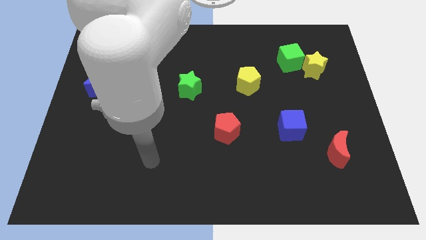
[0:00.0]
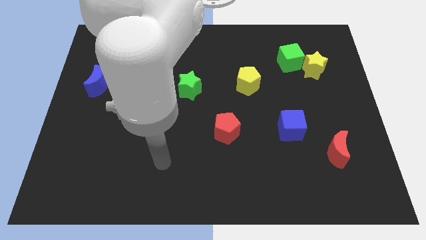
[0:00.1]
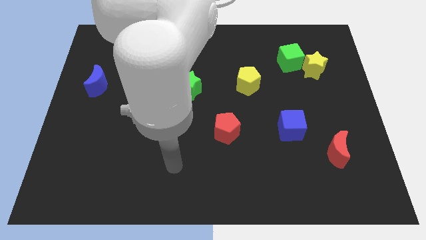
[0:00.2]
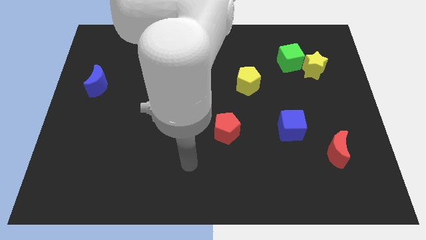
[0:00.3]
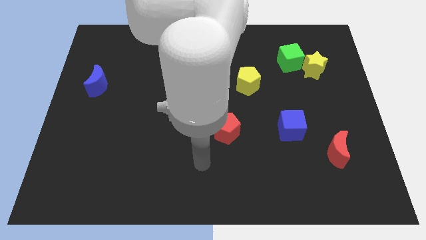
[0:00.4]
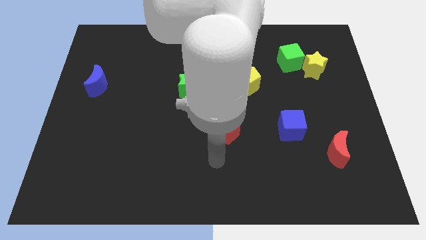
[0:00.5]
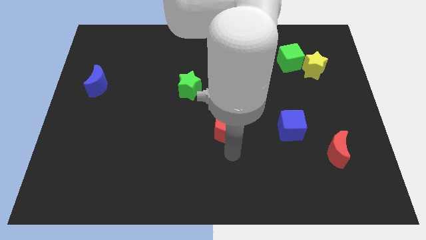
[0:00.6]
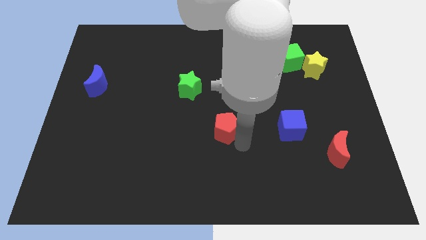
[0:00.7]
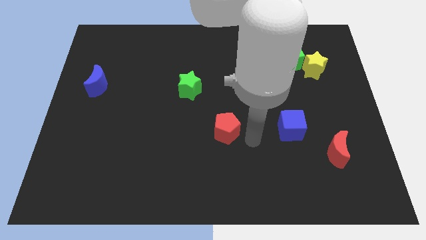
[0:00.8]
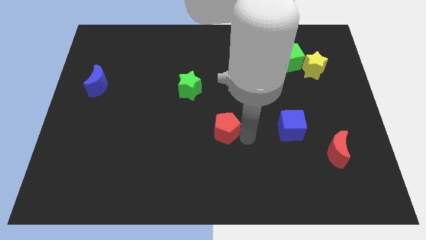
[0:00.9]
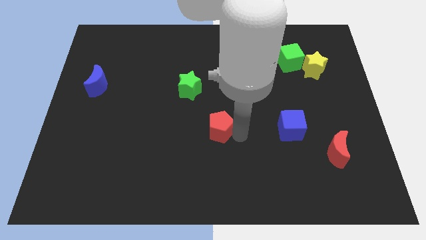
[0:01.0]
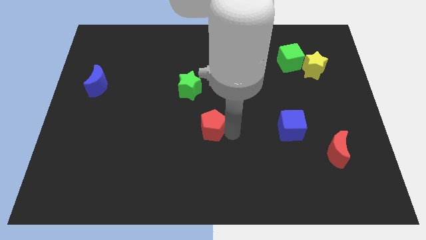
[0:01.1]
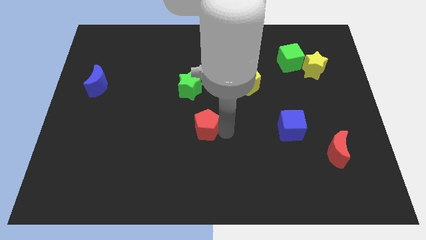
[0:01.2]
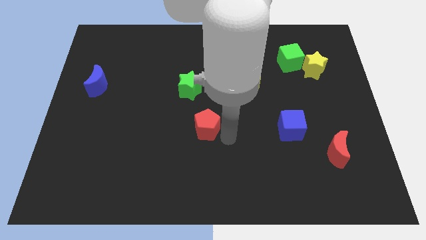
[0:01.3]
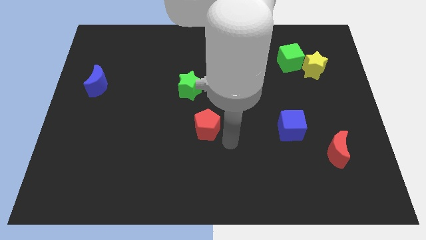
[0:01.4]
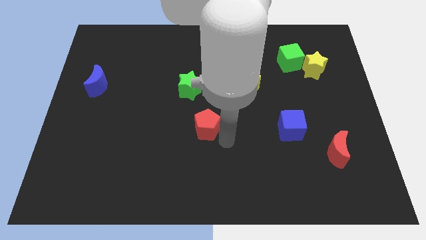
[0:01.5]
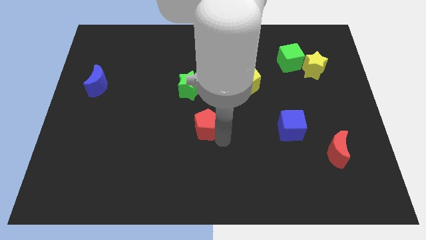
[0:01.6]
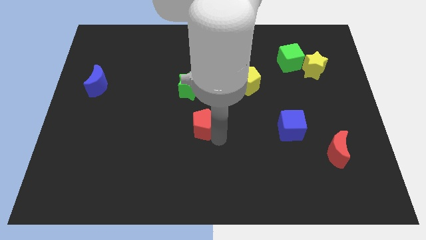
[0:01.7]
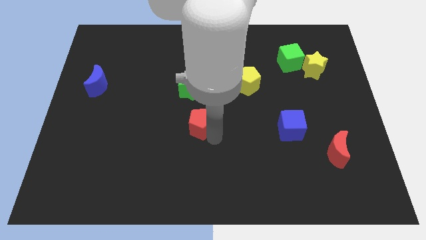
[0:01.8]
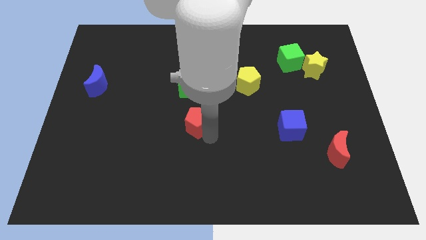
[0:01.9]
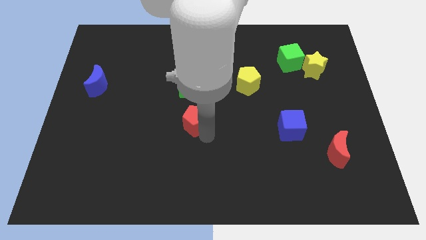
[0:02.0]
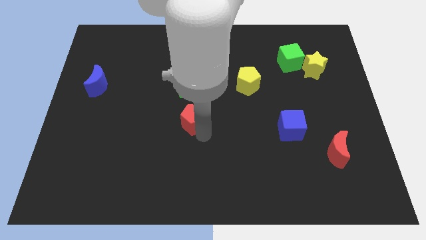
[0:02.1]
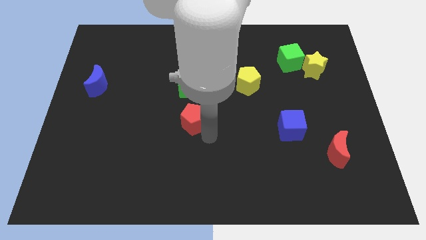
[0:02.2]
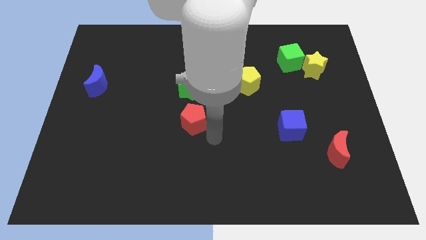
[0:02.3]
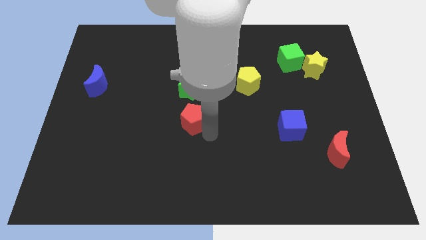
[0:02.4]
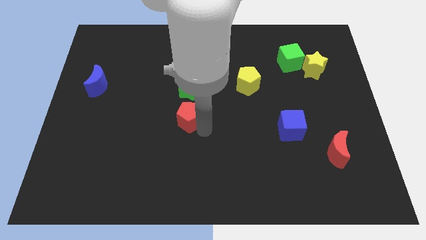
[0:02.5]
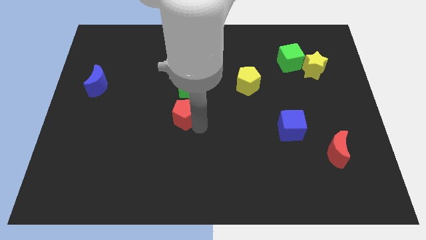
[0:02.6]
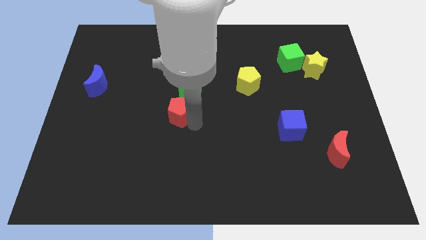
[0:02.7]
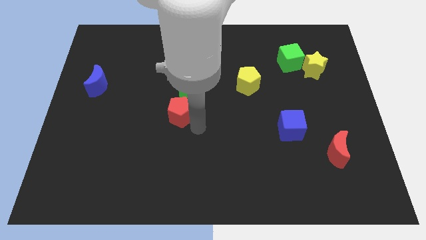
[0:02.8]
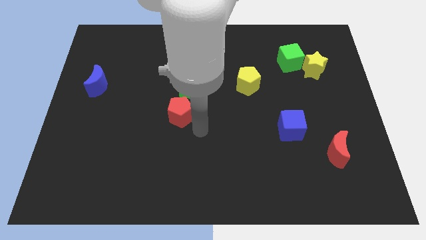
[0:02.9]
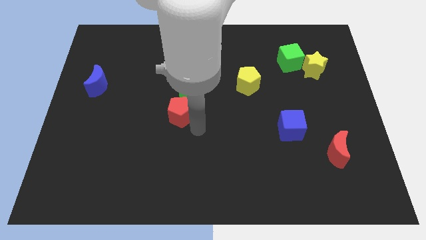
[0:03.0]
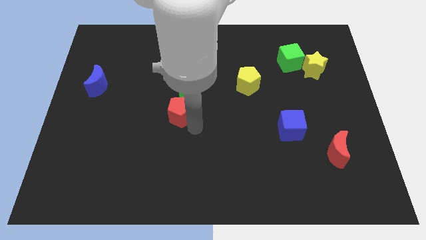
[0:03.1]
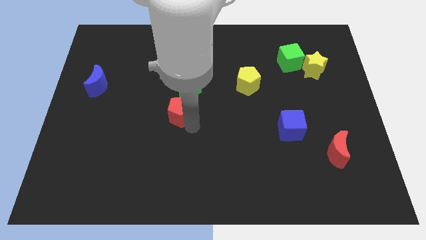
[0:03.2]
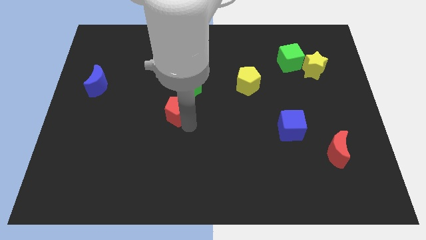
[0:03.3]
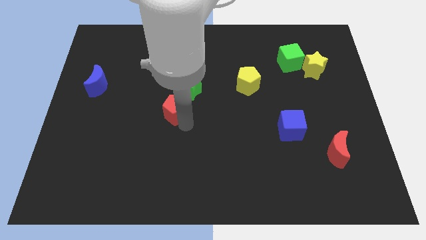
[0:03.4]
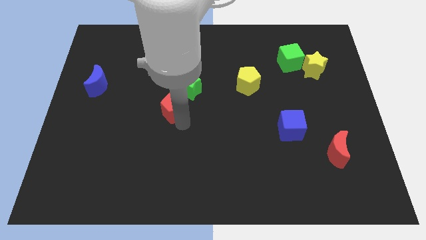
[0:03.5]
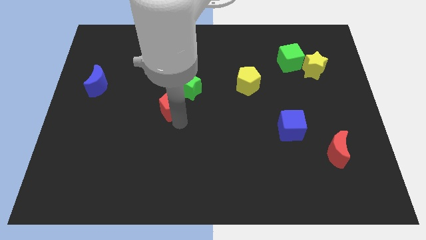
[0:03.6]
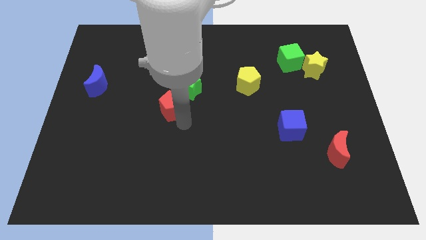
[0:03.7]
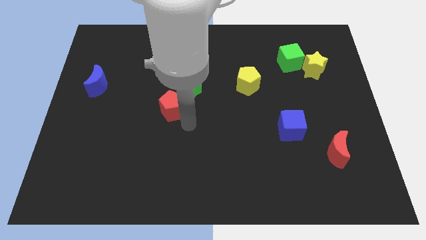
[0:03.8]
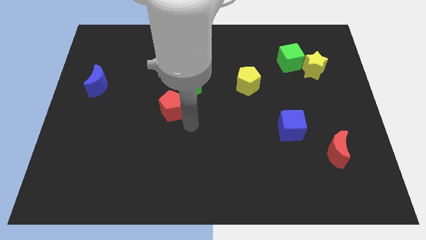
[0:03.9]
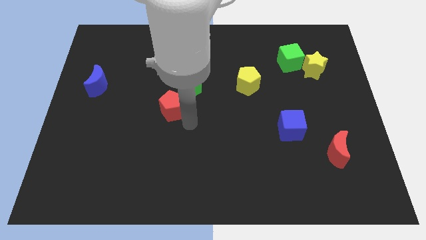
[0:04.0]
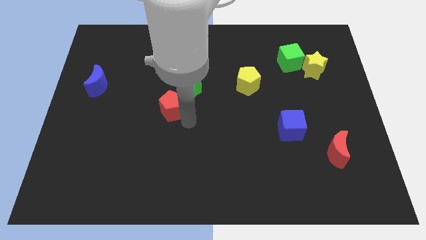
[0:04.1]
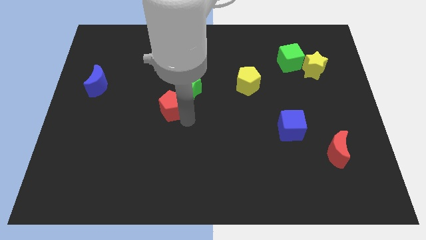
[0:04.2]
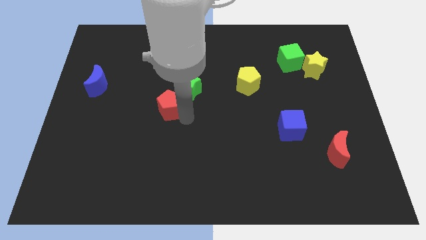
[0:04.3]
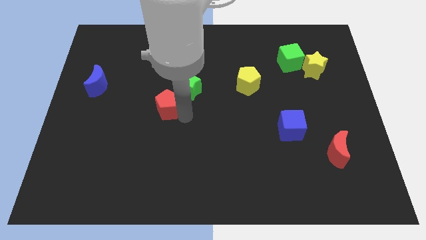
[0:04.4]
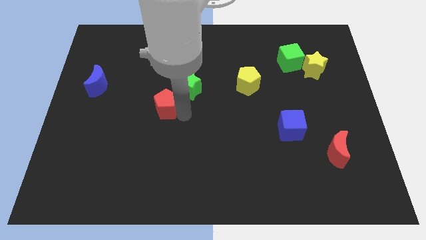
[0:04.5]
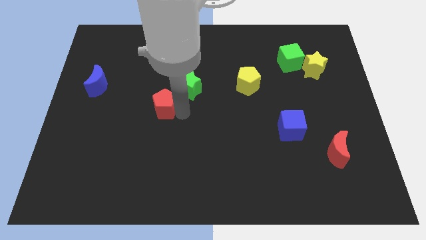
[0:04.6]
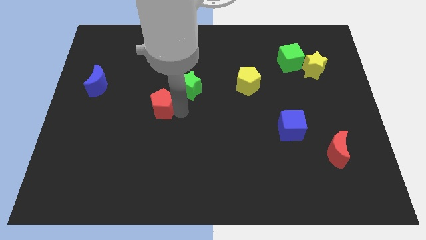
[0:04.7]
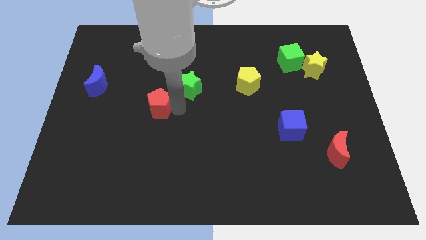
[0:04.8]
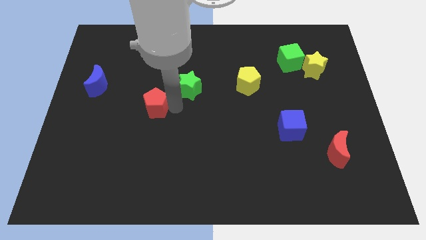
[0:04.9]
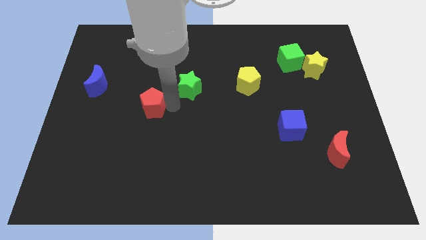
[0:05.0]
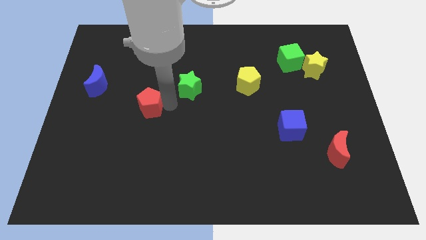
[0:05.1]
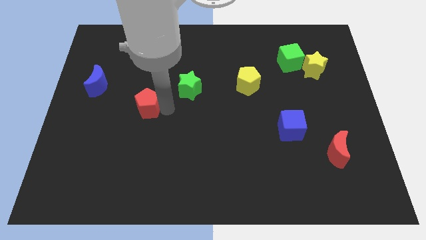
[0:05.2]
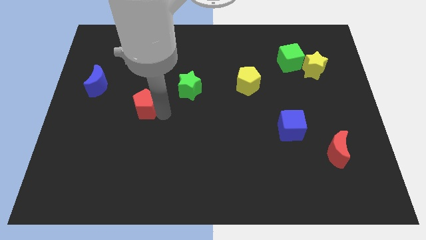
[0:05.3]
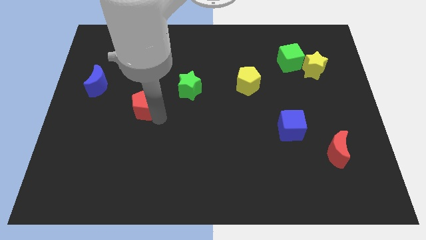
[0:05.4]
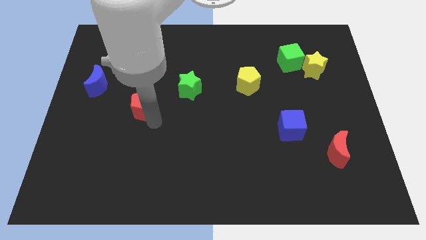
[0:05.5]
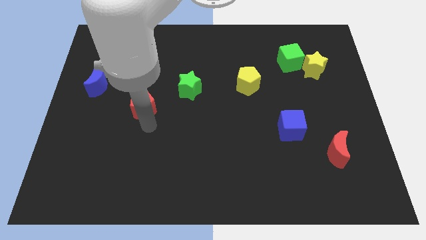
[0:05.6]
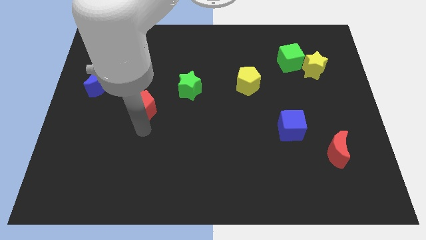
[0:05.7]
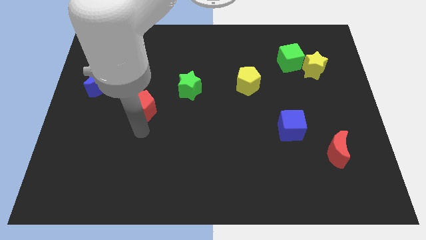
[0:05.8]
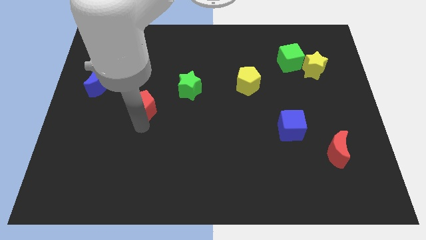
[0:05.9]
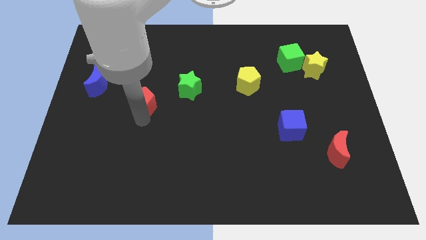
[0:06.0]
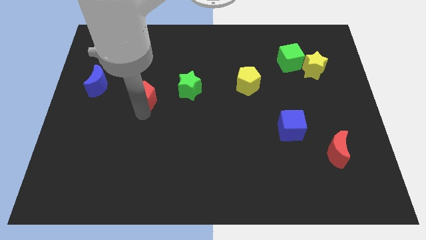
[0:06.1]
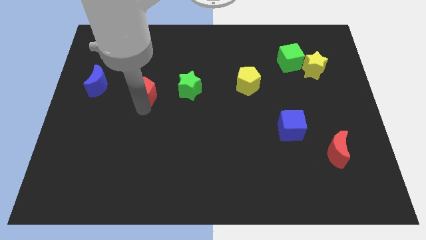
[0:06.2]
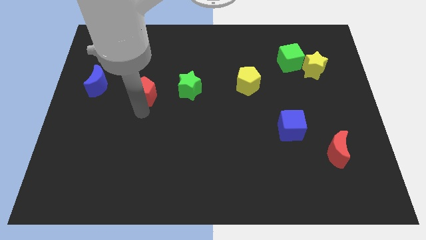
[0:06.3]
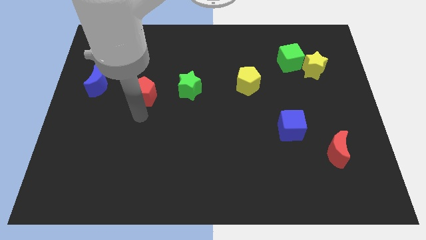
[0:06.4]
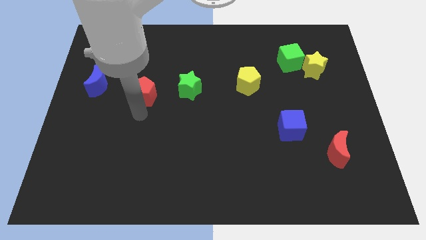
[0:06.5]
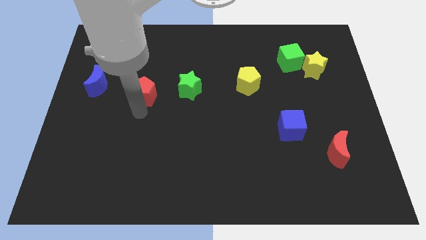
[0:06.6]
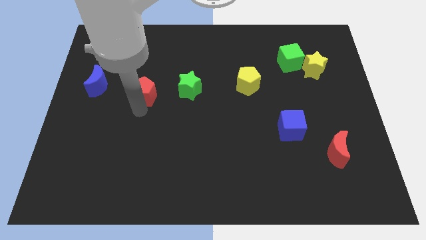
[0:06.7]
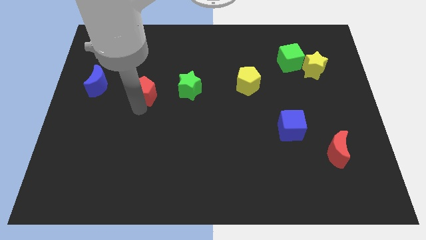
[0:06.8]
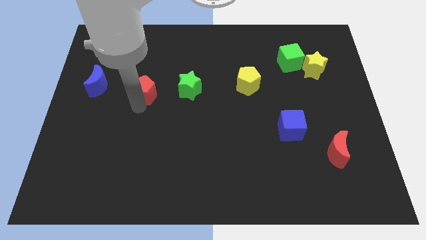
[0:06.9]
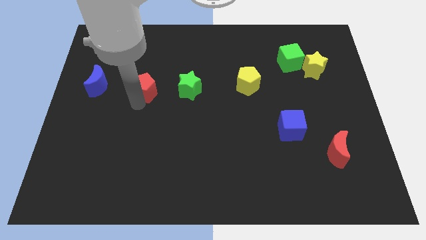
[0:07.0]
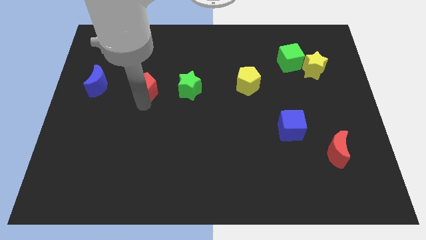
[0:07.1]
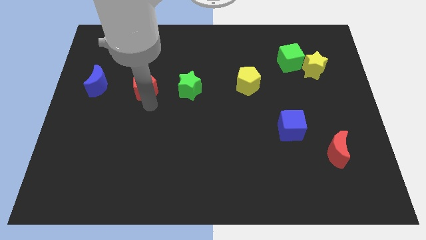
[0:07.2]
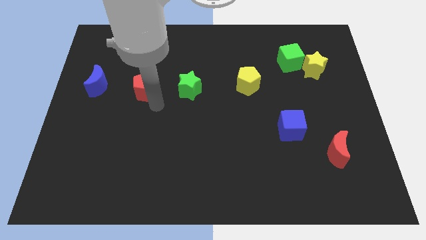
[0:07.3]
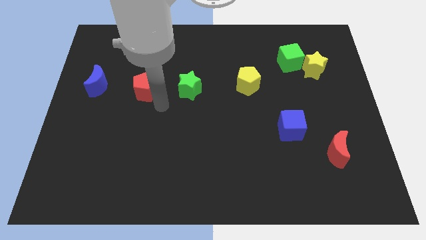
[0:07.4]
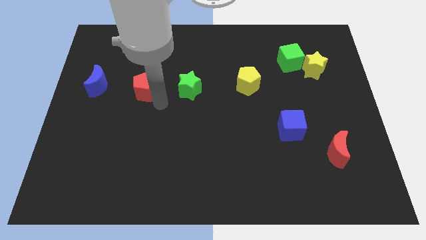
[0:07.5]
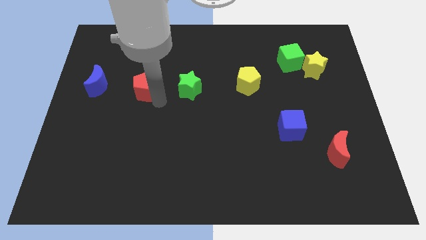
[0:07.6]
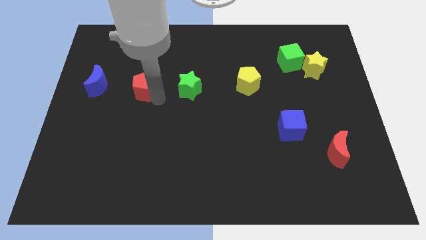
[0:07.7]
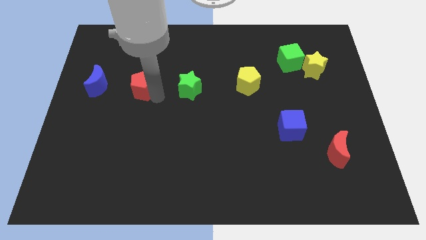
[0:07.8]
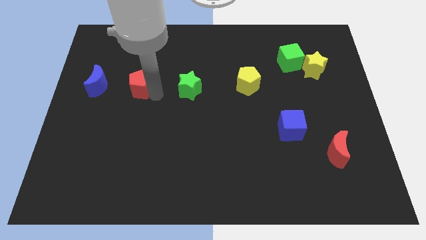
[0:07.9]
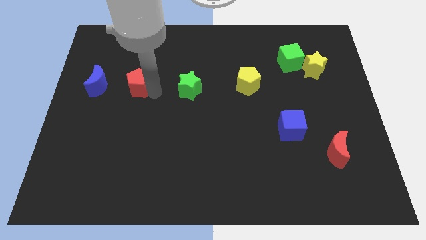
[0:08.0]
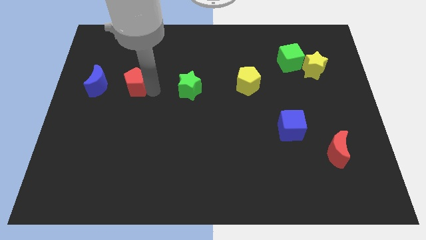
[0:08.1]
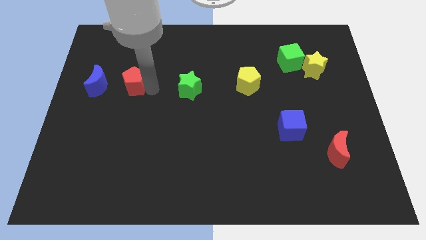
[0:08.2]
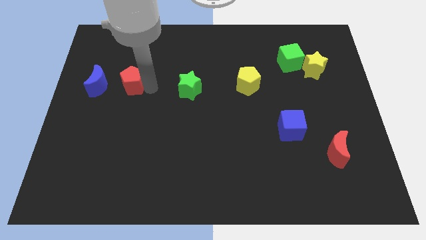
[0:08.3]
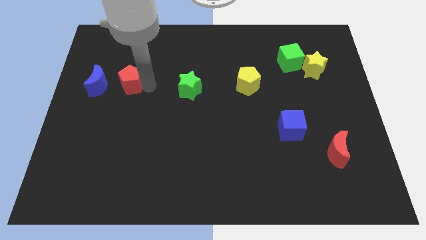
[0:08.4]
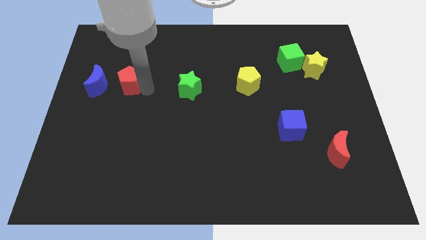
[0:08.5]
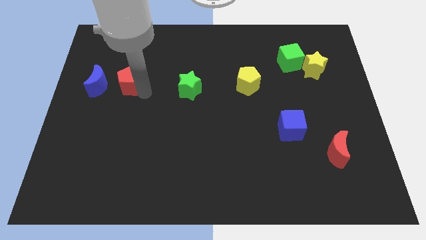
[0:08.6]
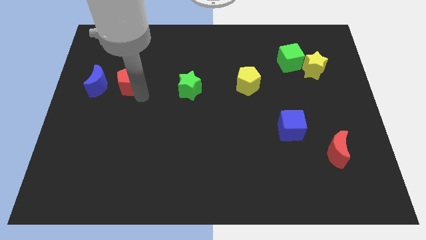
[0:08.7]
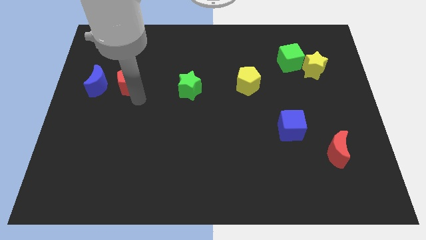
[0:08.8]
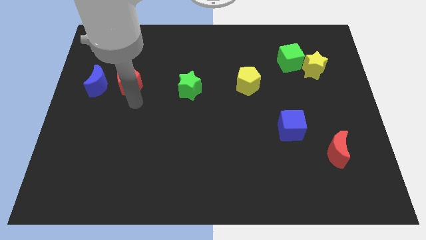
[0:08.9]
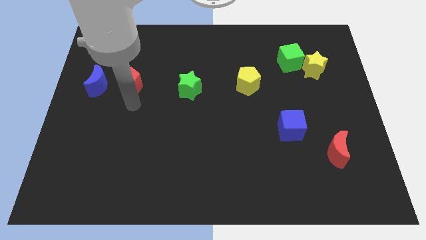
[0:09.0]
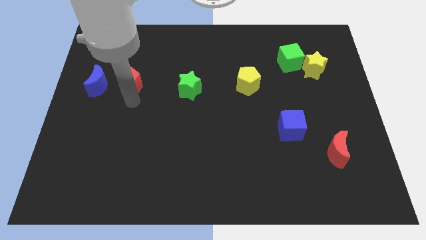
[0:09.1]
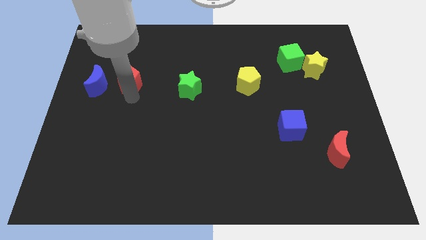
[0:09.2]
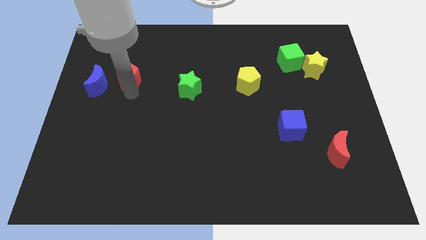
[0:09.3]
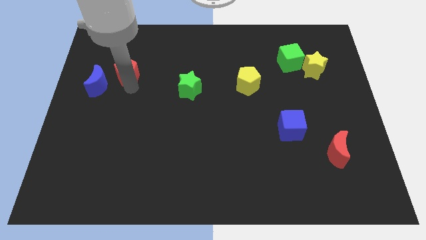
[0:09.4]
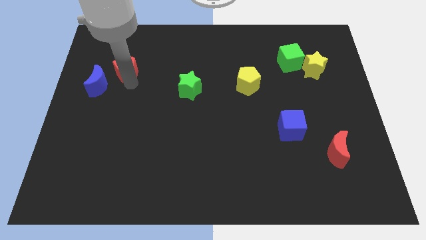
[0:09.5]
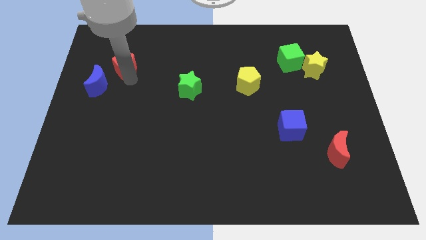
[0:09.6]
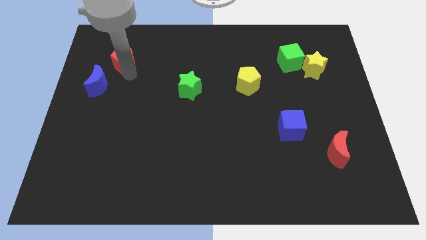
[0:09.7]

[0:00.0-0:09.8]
slide the red pentagon to the top of the blue moon
